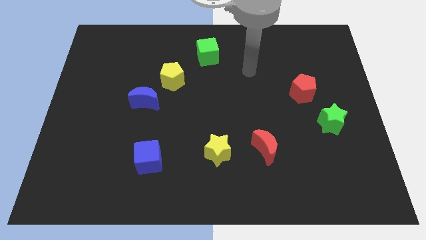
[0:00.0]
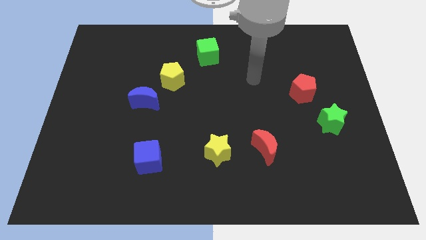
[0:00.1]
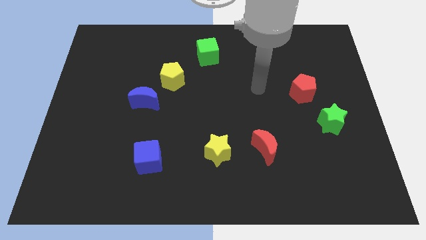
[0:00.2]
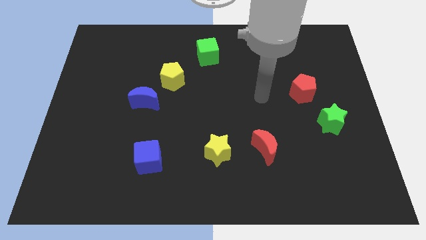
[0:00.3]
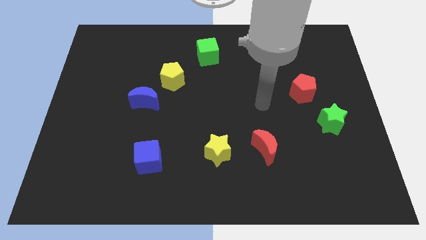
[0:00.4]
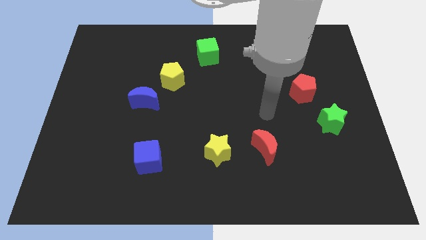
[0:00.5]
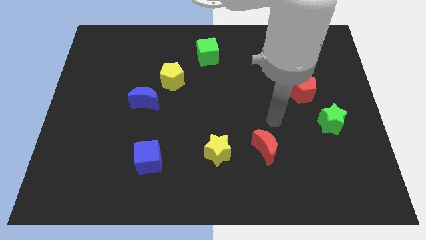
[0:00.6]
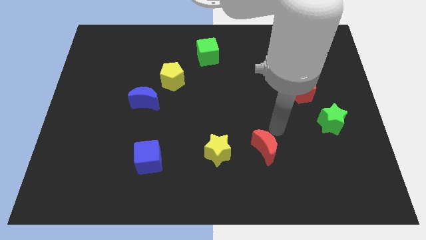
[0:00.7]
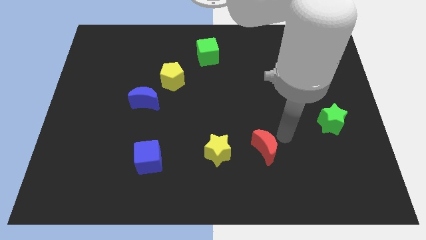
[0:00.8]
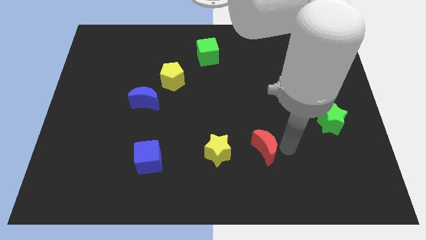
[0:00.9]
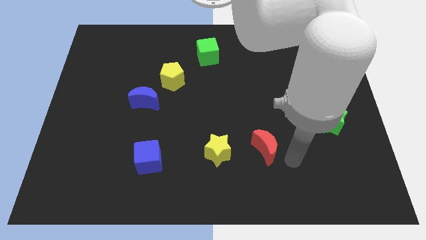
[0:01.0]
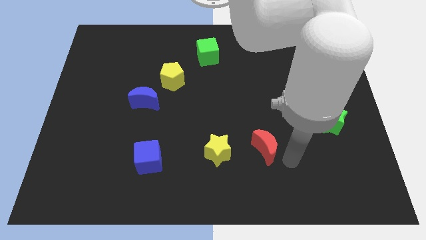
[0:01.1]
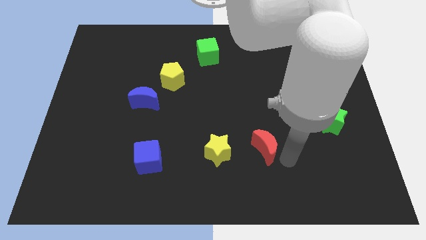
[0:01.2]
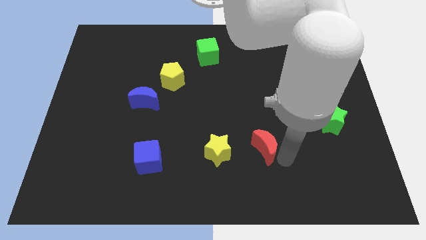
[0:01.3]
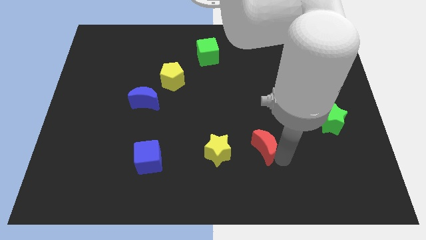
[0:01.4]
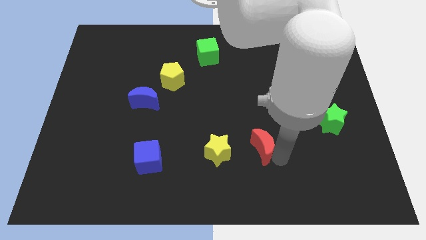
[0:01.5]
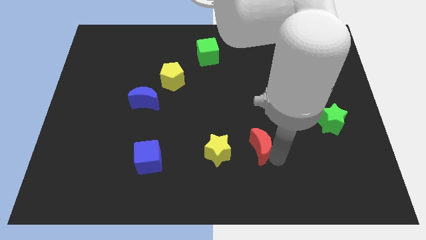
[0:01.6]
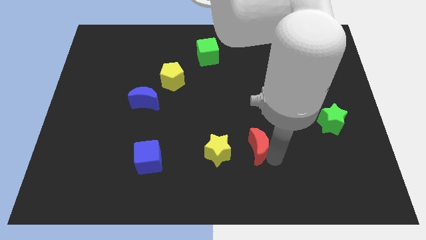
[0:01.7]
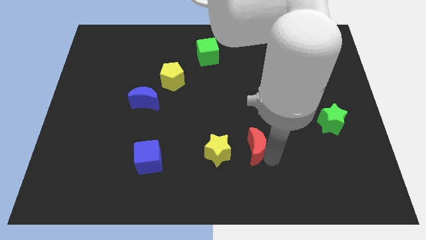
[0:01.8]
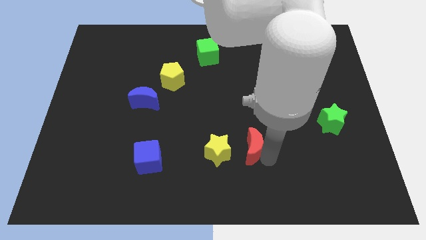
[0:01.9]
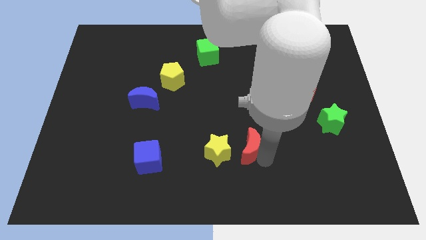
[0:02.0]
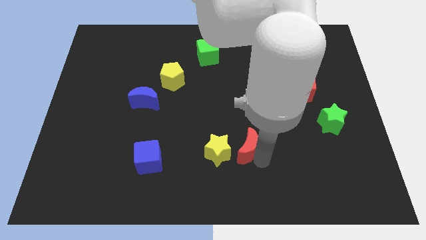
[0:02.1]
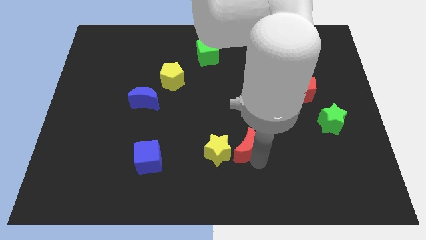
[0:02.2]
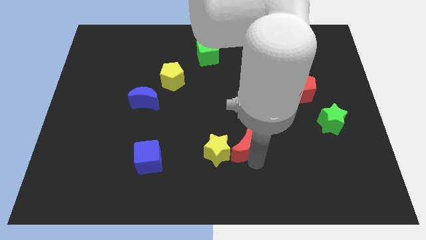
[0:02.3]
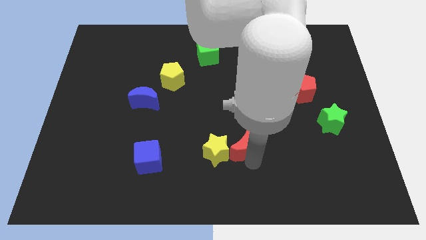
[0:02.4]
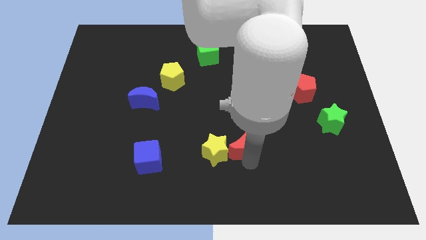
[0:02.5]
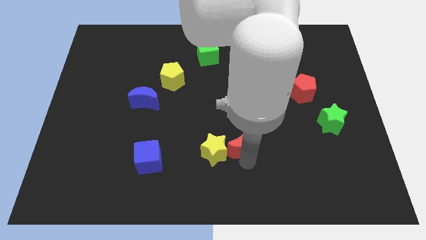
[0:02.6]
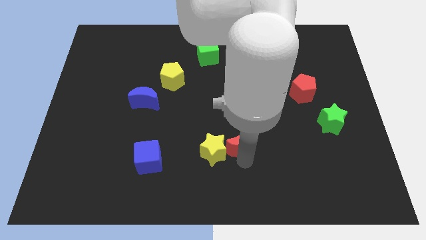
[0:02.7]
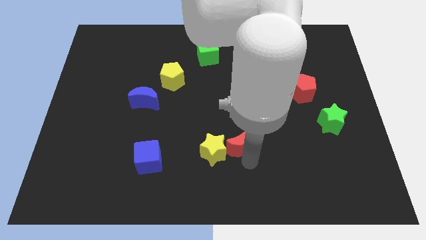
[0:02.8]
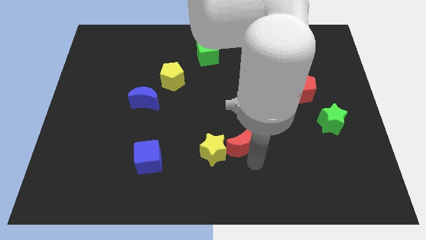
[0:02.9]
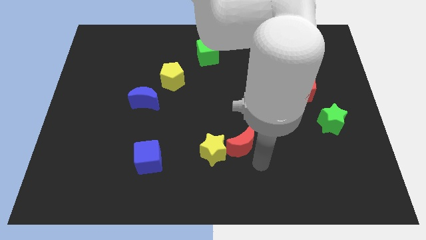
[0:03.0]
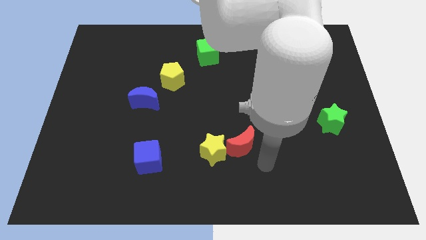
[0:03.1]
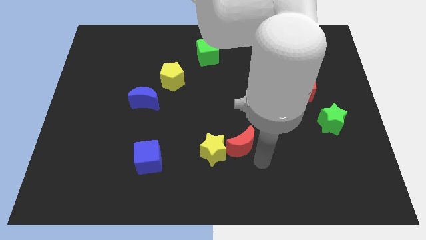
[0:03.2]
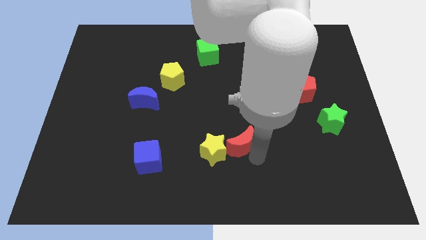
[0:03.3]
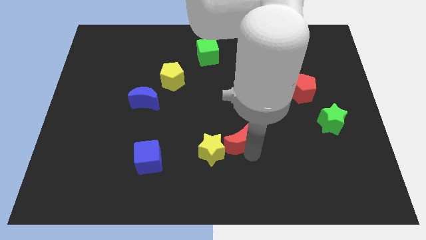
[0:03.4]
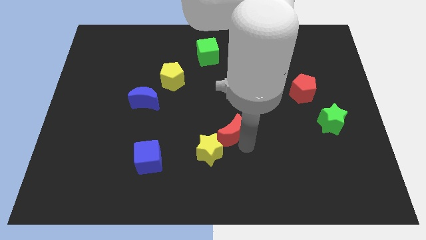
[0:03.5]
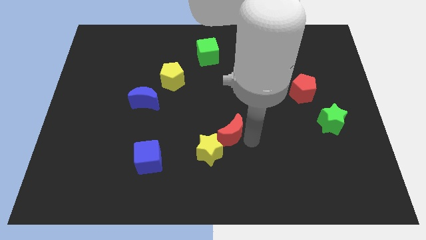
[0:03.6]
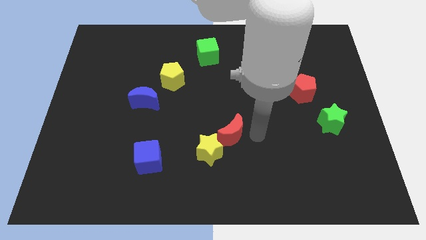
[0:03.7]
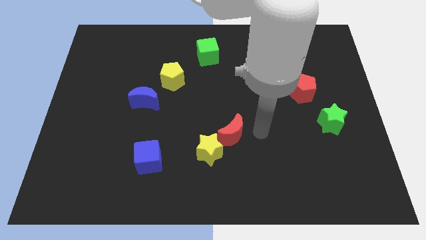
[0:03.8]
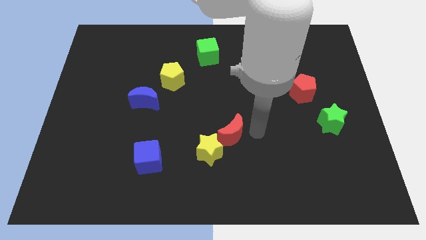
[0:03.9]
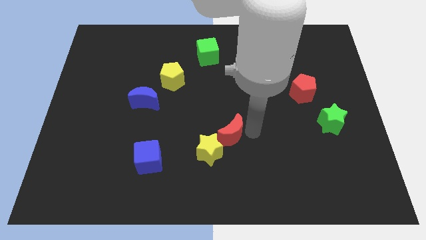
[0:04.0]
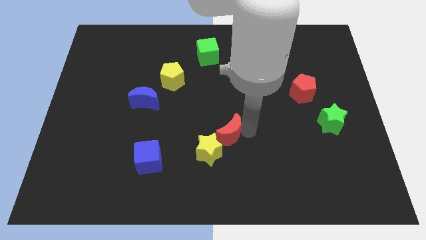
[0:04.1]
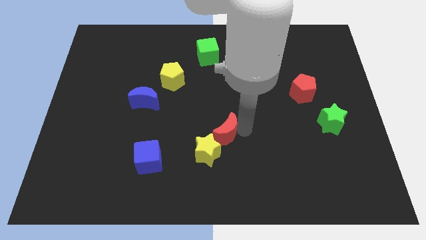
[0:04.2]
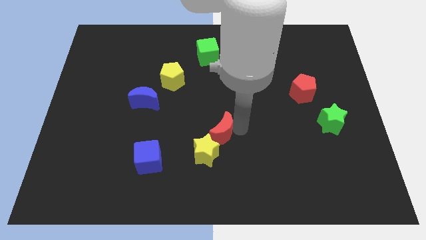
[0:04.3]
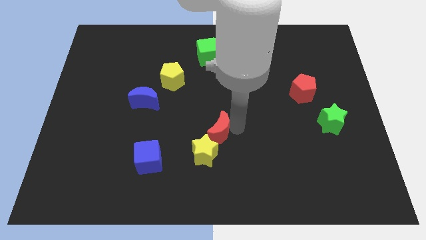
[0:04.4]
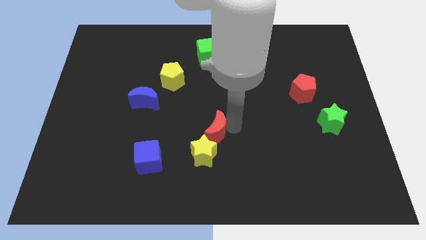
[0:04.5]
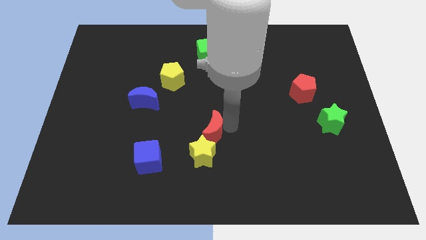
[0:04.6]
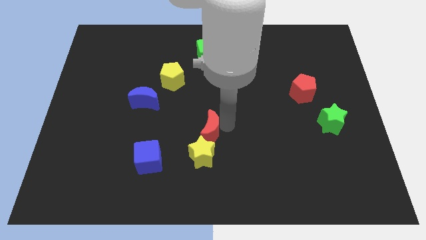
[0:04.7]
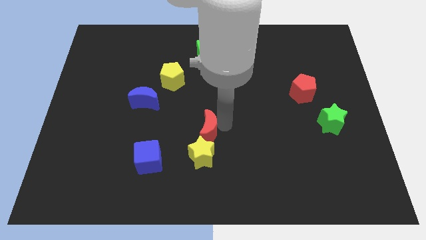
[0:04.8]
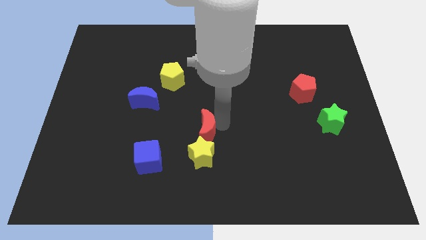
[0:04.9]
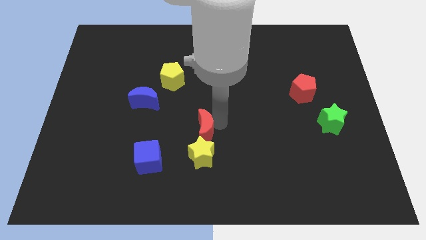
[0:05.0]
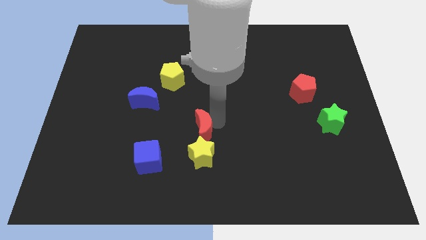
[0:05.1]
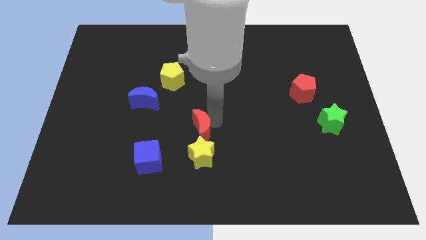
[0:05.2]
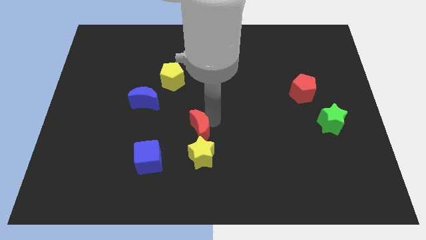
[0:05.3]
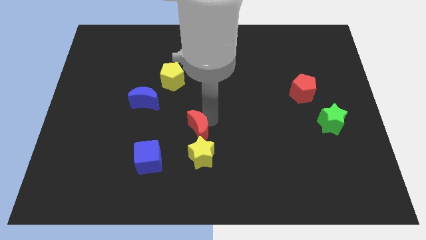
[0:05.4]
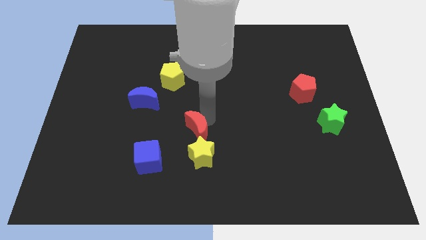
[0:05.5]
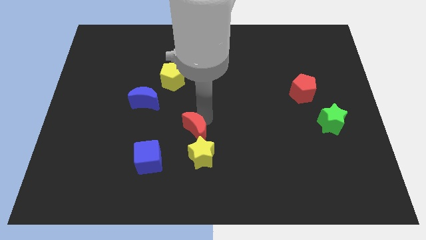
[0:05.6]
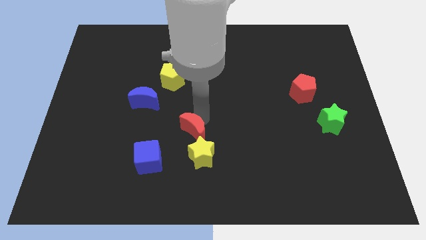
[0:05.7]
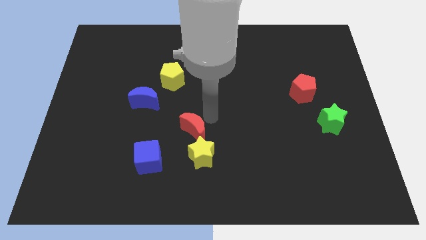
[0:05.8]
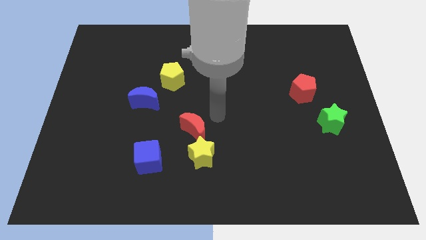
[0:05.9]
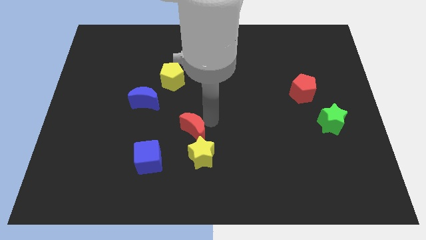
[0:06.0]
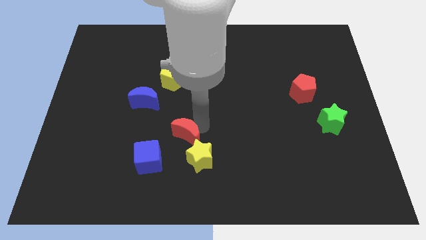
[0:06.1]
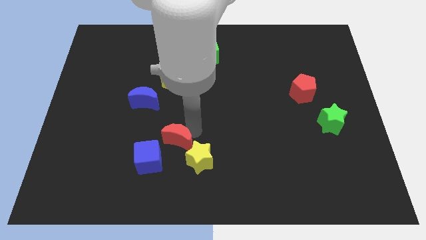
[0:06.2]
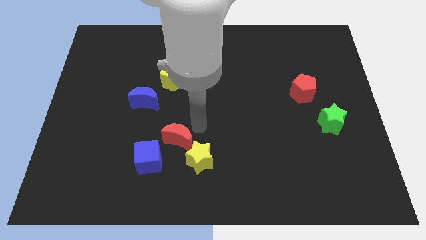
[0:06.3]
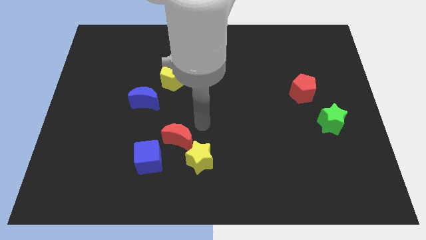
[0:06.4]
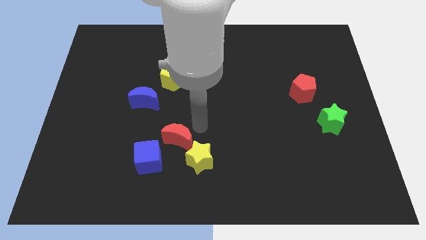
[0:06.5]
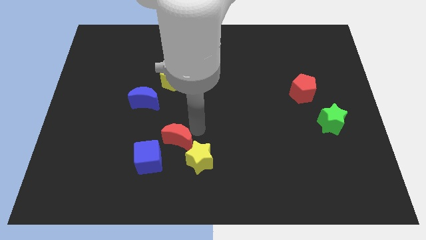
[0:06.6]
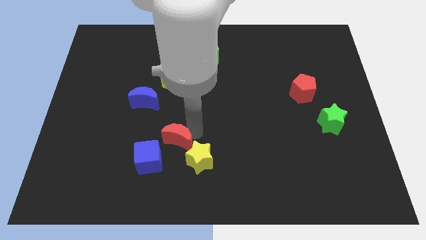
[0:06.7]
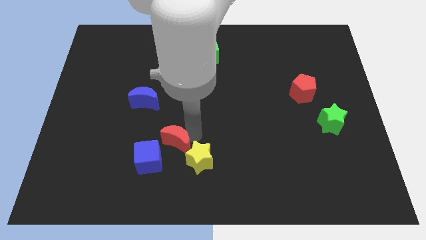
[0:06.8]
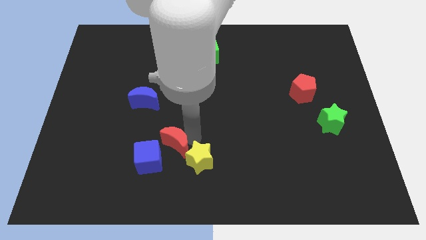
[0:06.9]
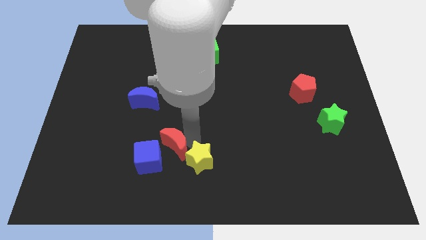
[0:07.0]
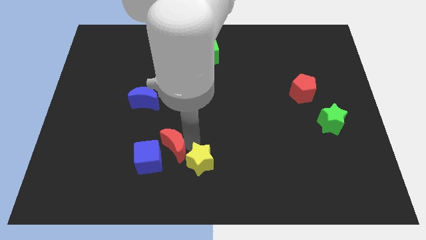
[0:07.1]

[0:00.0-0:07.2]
put the red moon to the blue cube
